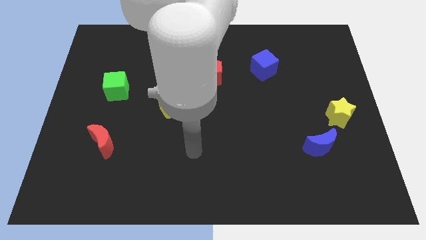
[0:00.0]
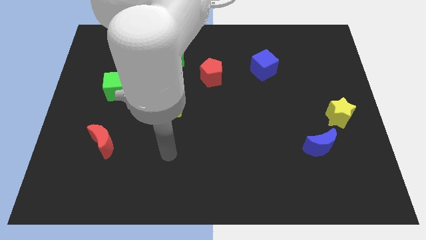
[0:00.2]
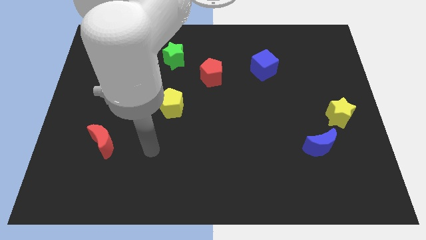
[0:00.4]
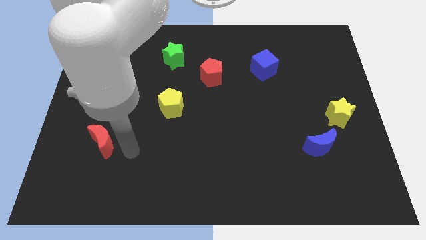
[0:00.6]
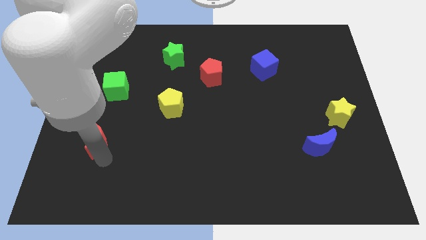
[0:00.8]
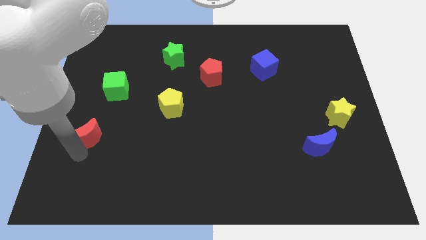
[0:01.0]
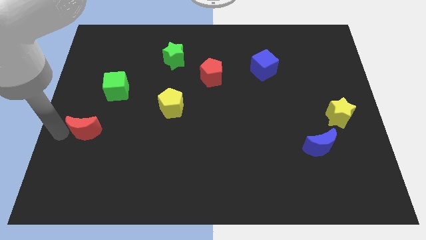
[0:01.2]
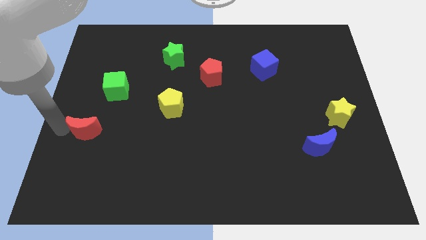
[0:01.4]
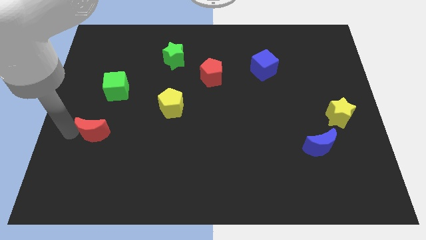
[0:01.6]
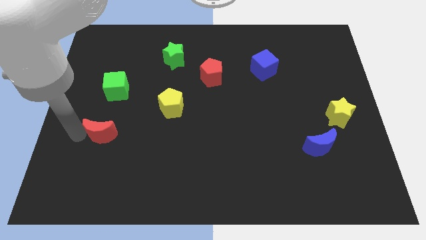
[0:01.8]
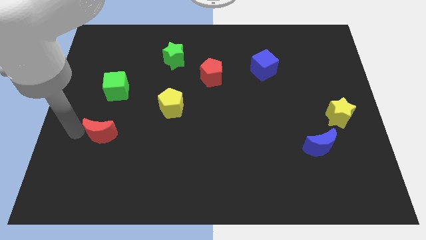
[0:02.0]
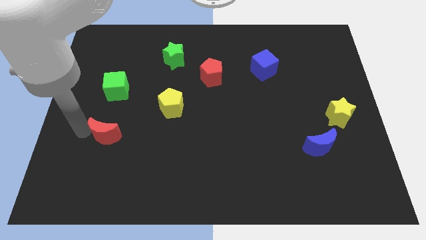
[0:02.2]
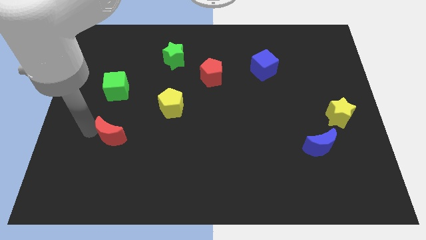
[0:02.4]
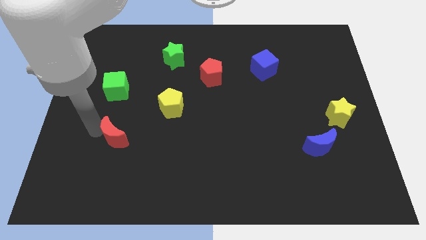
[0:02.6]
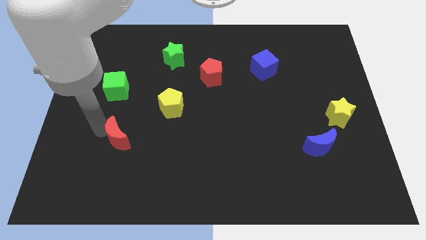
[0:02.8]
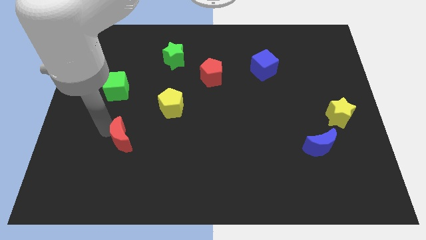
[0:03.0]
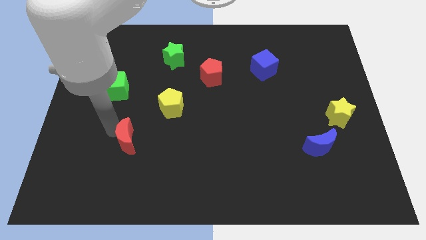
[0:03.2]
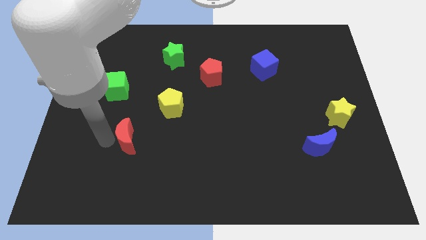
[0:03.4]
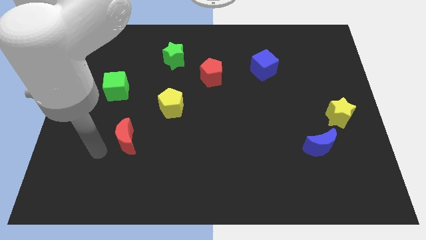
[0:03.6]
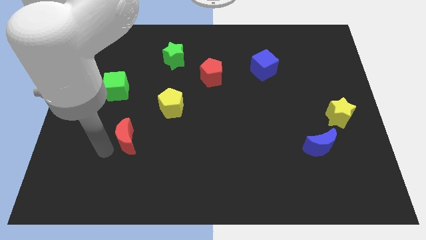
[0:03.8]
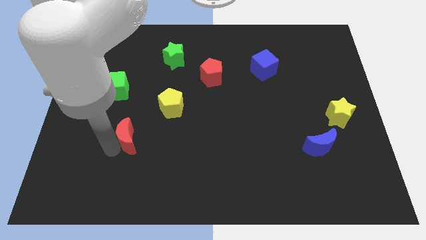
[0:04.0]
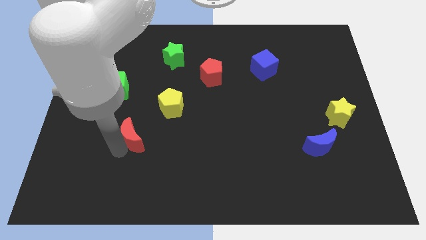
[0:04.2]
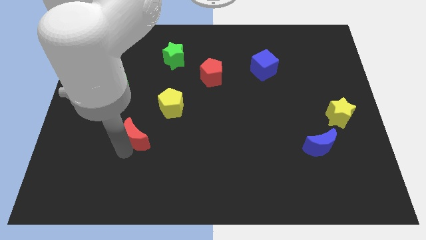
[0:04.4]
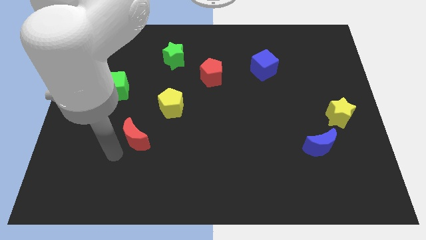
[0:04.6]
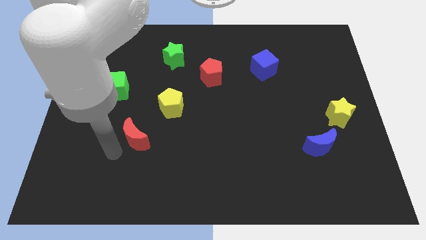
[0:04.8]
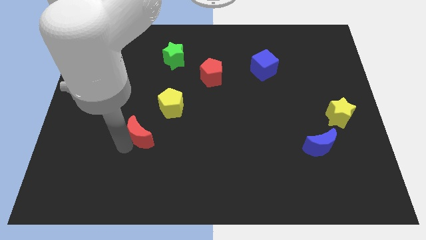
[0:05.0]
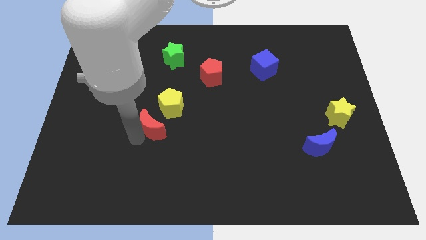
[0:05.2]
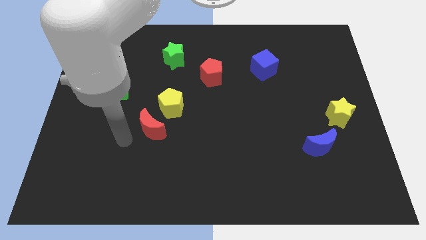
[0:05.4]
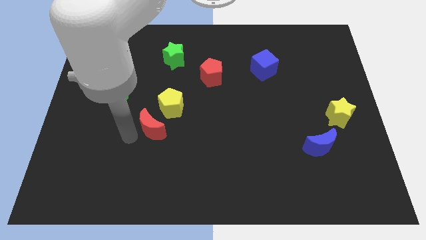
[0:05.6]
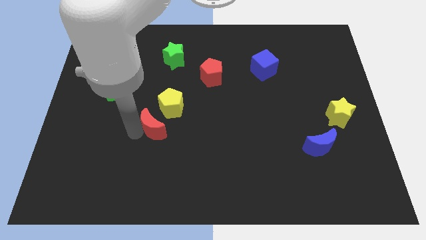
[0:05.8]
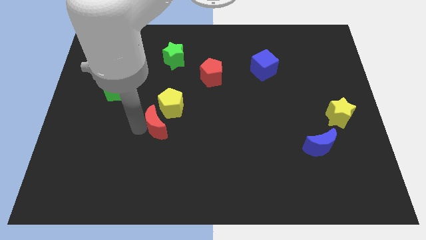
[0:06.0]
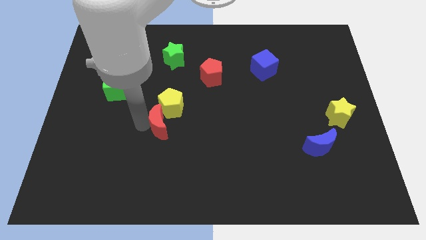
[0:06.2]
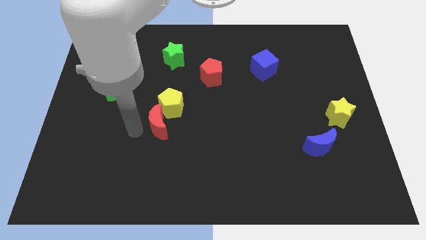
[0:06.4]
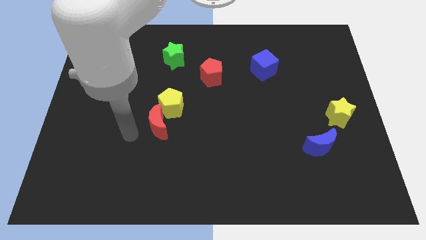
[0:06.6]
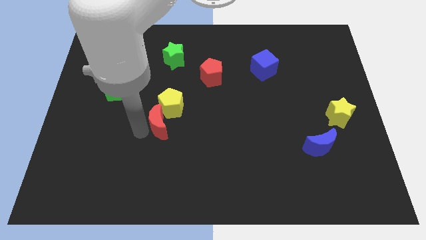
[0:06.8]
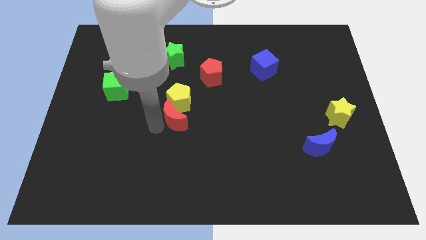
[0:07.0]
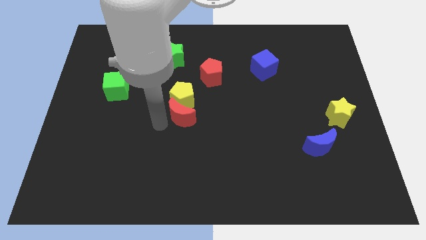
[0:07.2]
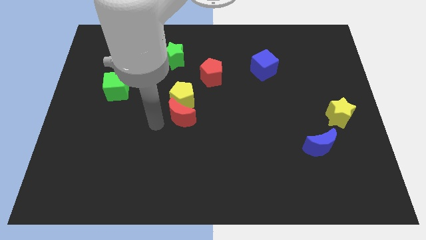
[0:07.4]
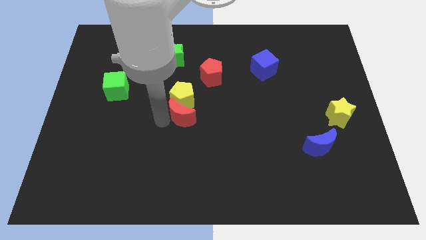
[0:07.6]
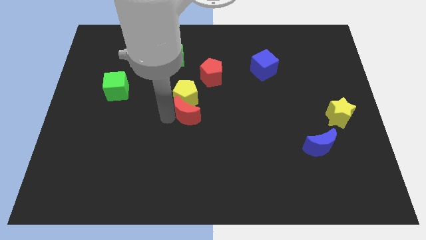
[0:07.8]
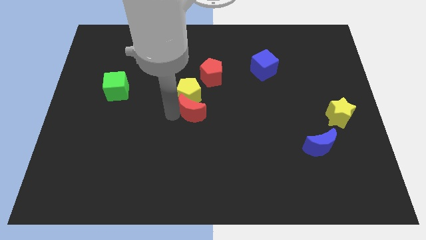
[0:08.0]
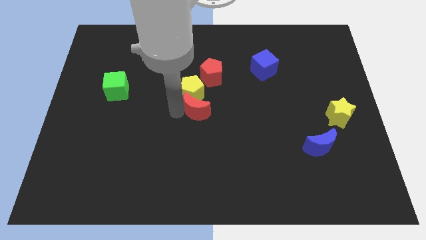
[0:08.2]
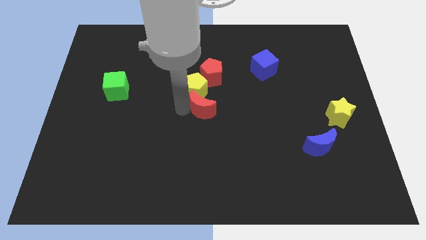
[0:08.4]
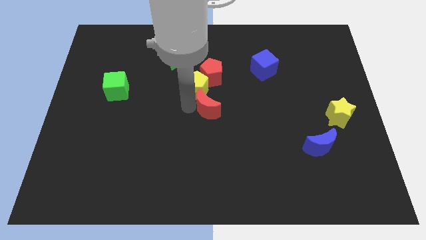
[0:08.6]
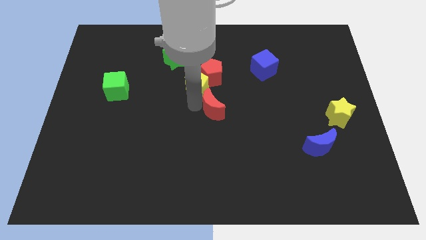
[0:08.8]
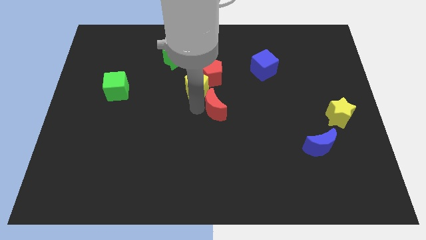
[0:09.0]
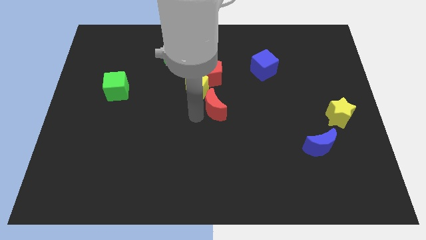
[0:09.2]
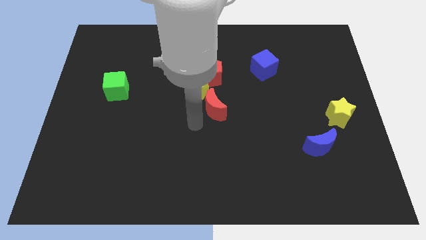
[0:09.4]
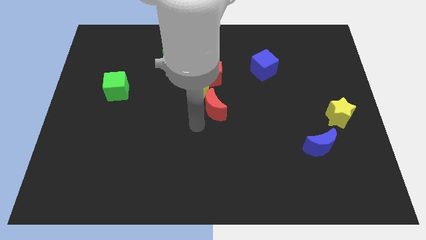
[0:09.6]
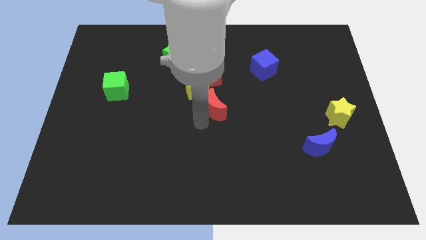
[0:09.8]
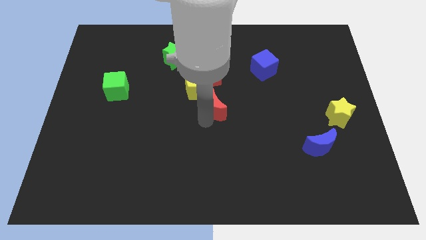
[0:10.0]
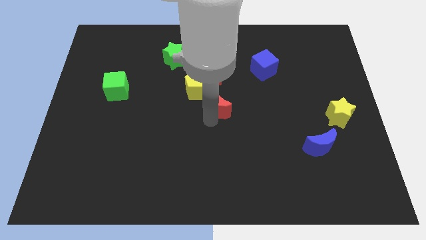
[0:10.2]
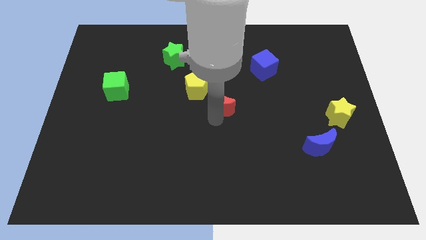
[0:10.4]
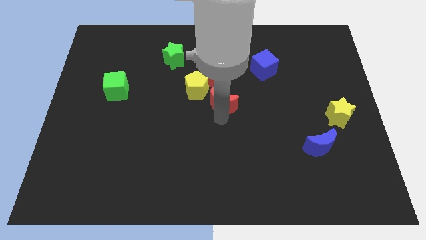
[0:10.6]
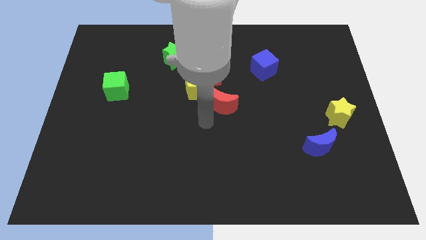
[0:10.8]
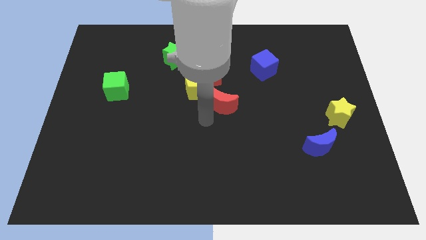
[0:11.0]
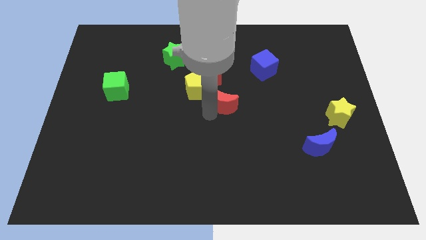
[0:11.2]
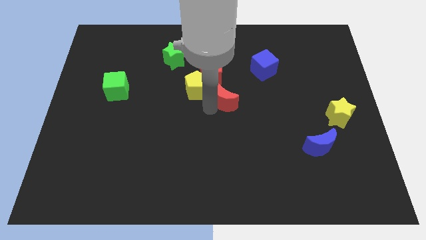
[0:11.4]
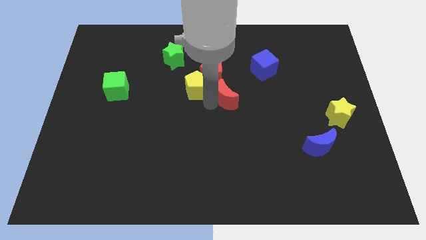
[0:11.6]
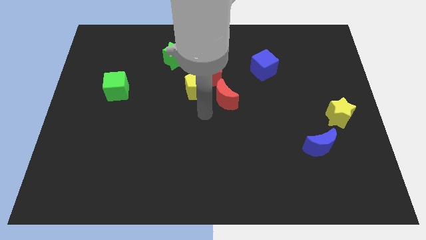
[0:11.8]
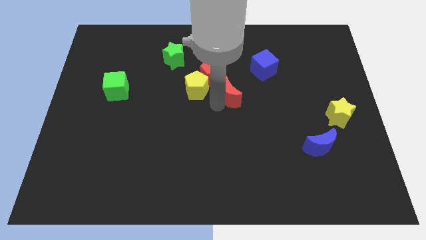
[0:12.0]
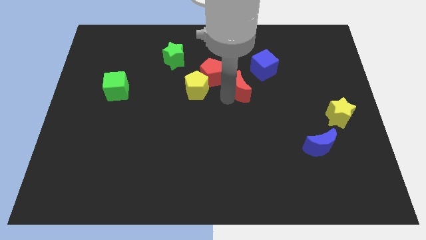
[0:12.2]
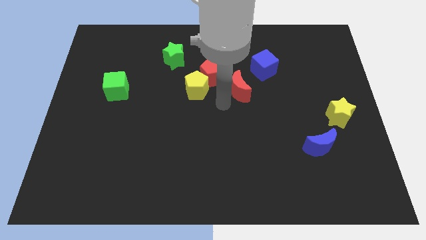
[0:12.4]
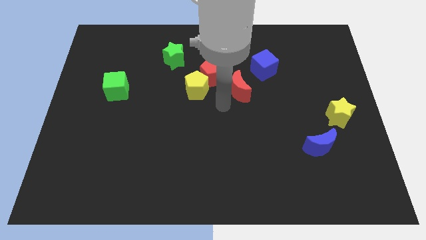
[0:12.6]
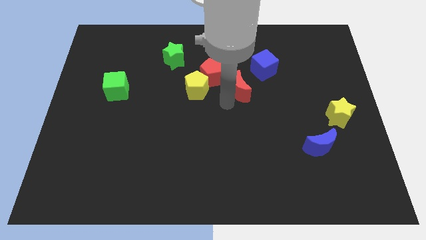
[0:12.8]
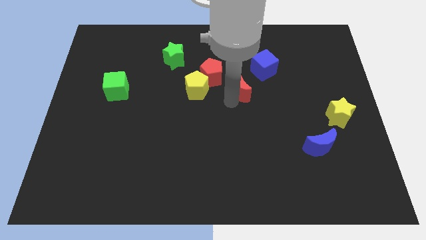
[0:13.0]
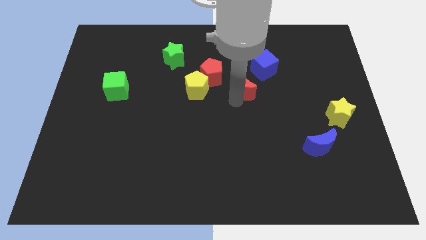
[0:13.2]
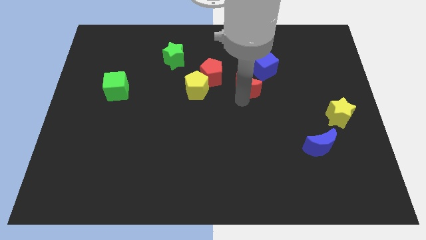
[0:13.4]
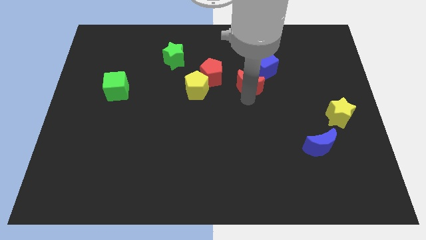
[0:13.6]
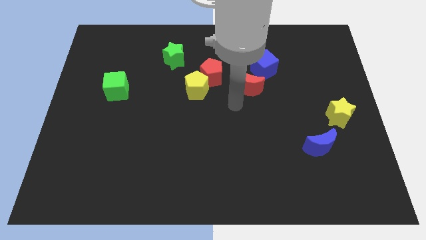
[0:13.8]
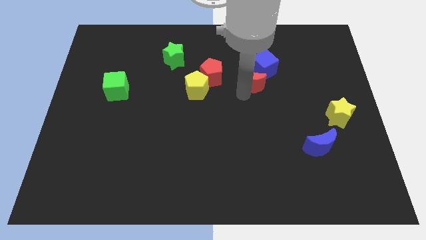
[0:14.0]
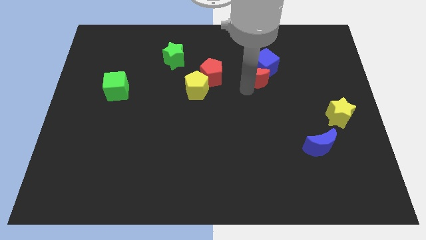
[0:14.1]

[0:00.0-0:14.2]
put the red moon close to the blue cube

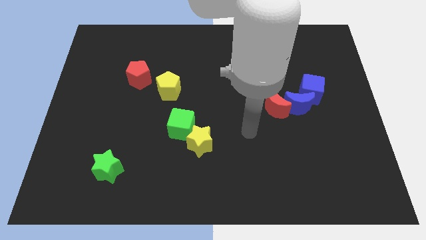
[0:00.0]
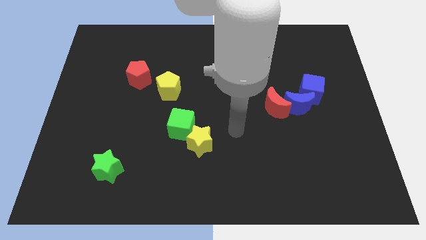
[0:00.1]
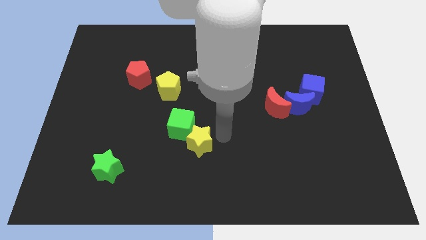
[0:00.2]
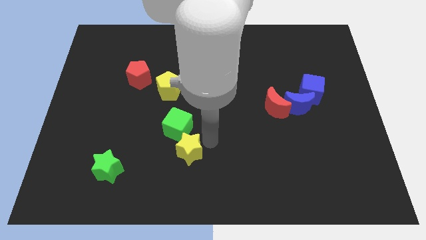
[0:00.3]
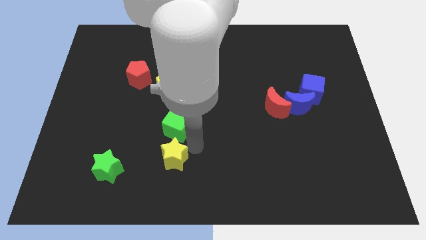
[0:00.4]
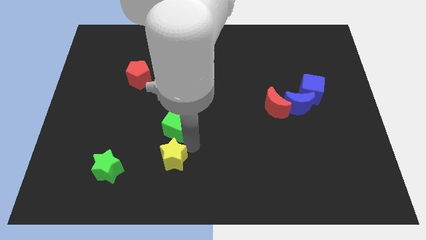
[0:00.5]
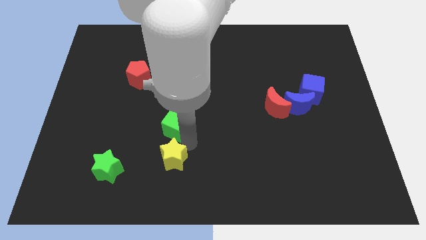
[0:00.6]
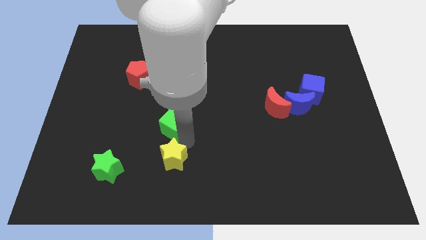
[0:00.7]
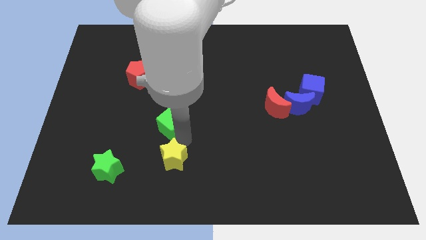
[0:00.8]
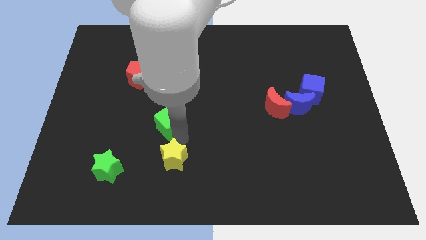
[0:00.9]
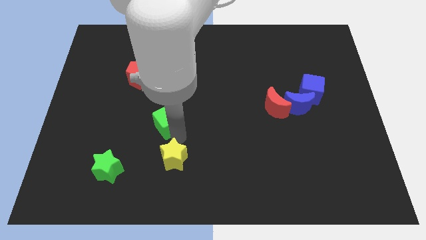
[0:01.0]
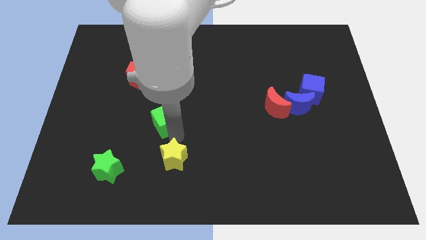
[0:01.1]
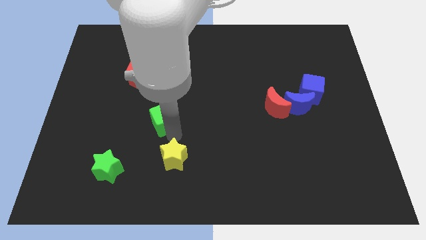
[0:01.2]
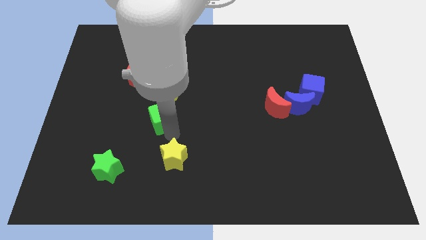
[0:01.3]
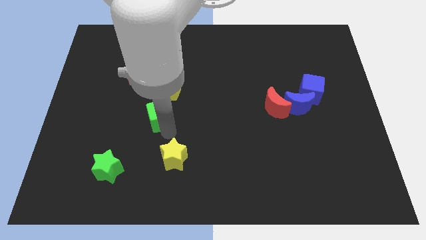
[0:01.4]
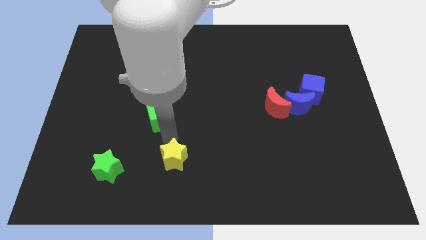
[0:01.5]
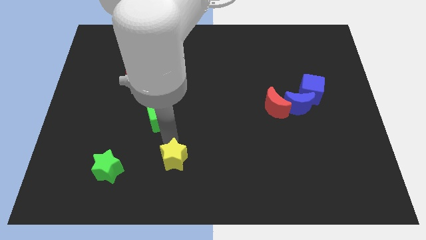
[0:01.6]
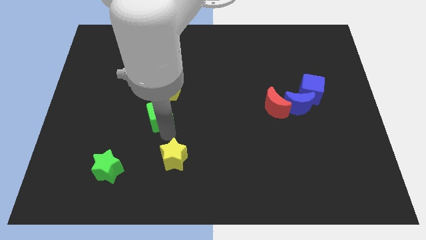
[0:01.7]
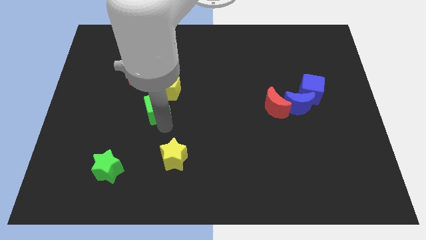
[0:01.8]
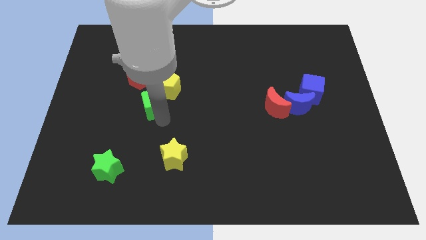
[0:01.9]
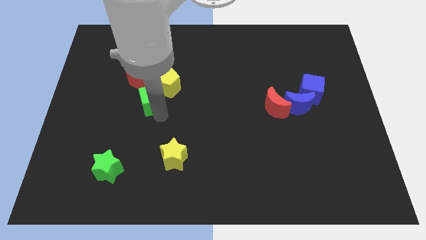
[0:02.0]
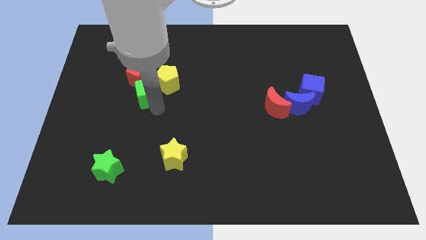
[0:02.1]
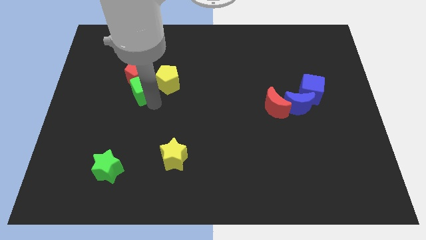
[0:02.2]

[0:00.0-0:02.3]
push the green cube towards the red pentagon
